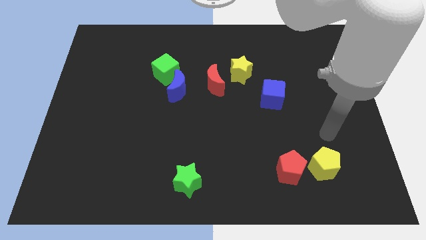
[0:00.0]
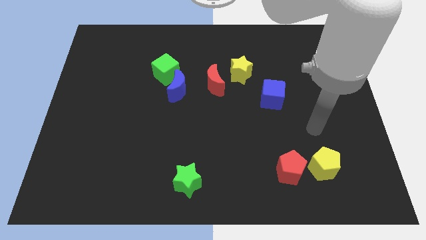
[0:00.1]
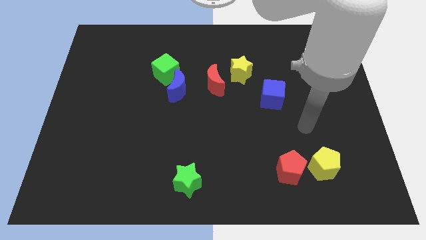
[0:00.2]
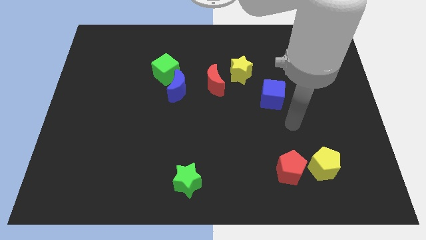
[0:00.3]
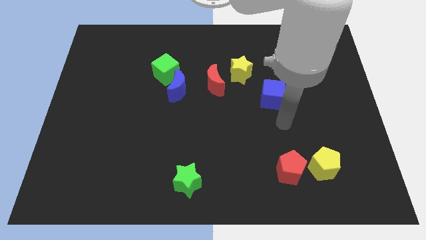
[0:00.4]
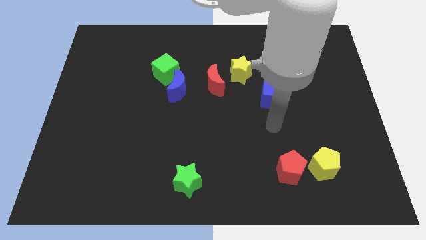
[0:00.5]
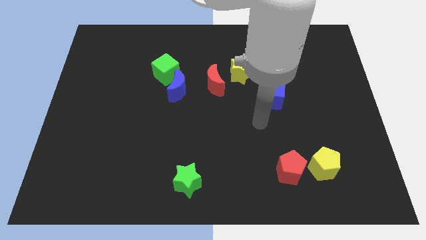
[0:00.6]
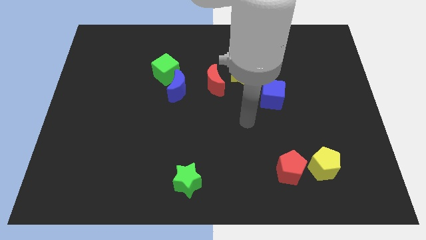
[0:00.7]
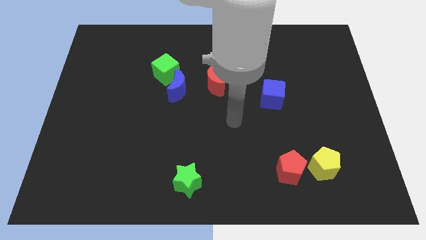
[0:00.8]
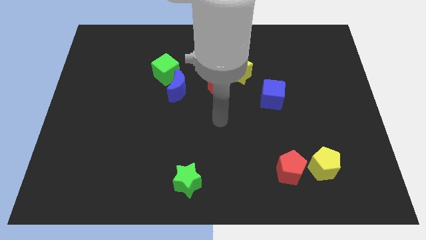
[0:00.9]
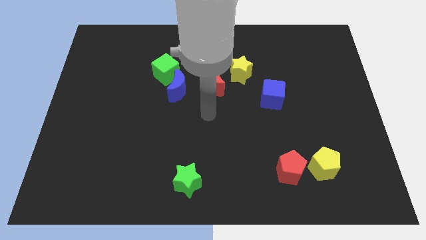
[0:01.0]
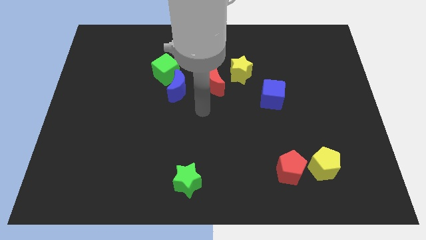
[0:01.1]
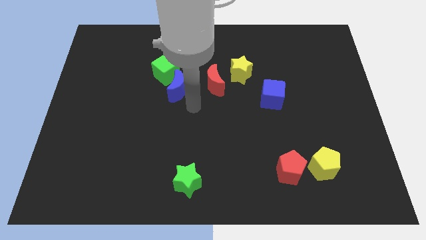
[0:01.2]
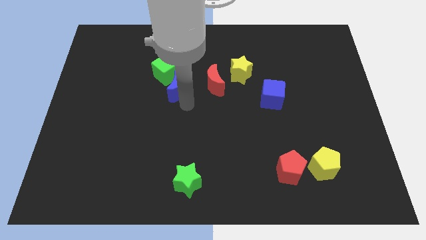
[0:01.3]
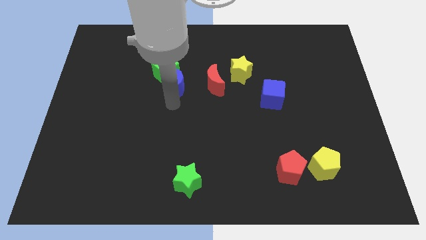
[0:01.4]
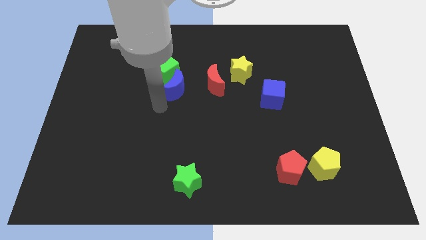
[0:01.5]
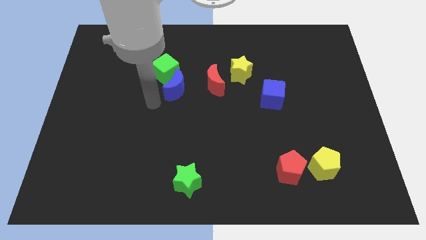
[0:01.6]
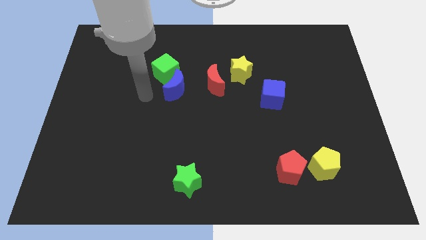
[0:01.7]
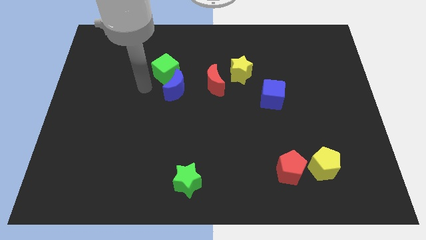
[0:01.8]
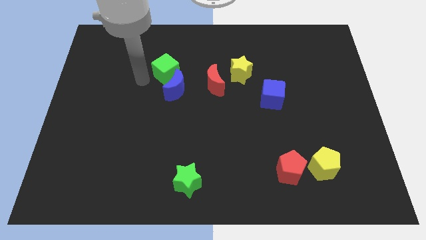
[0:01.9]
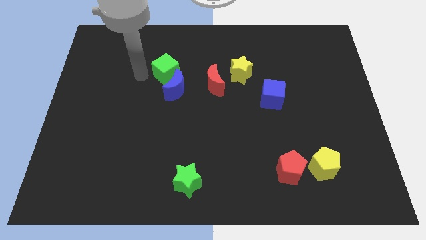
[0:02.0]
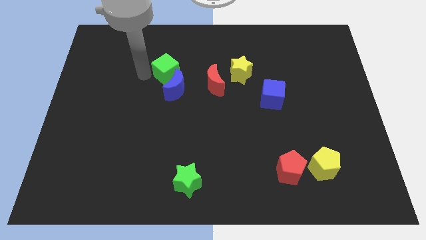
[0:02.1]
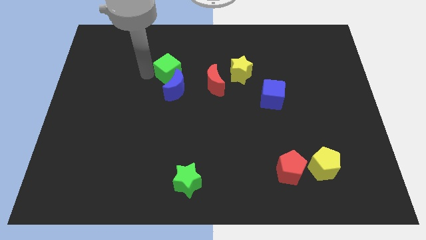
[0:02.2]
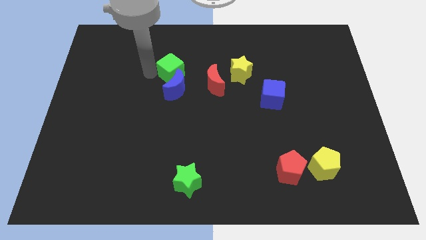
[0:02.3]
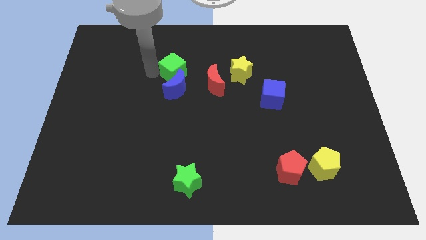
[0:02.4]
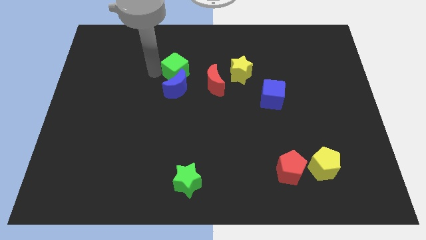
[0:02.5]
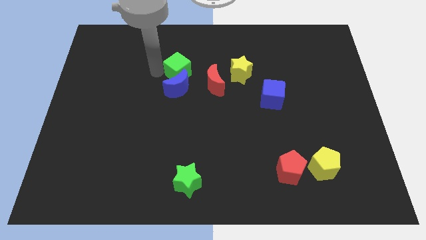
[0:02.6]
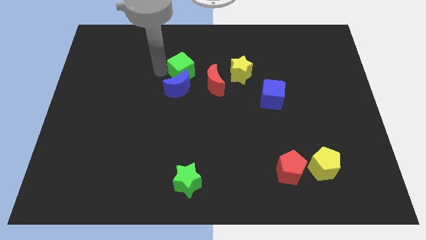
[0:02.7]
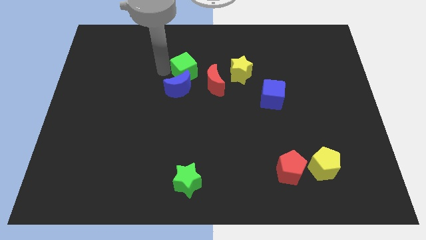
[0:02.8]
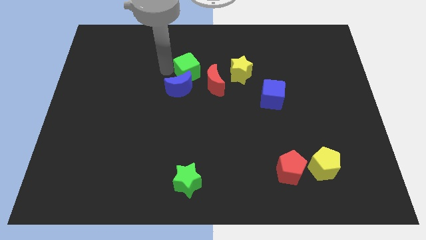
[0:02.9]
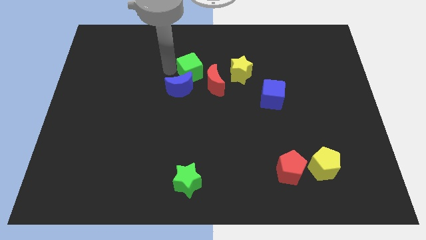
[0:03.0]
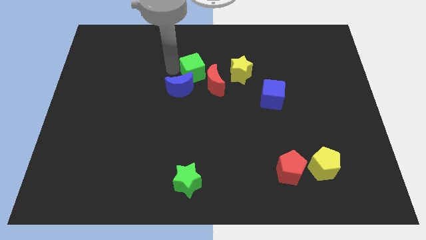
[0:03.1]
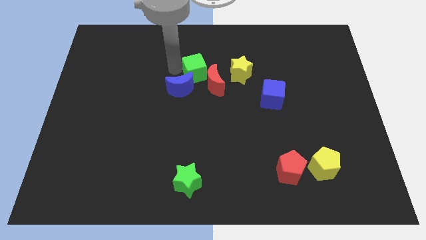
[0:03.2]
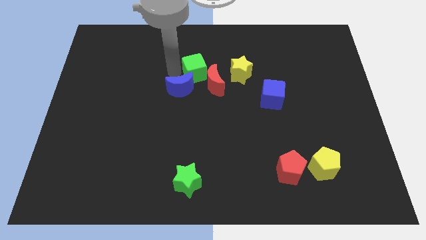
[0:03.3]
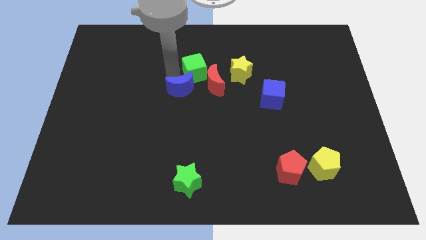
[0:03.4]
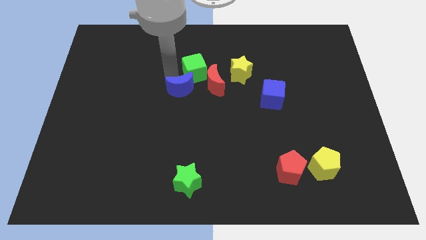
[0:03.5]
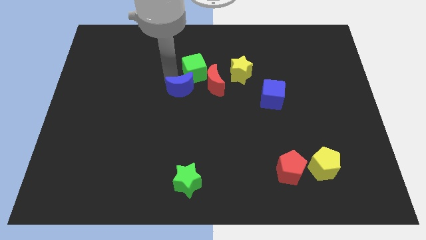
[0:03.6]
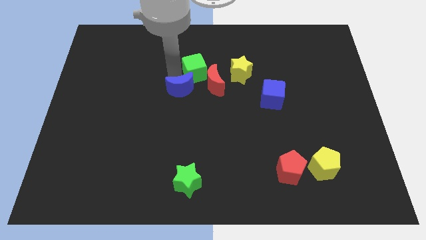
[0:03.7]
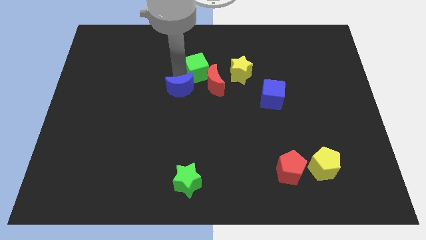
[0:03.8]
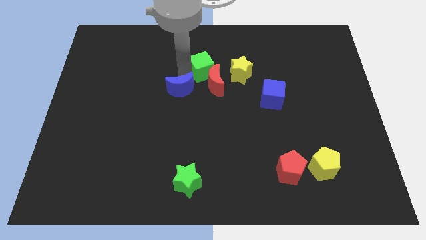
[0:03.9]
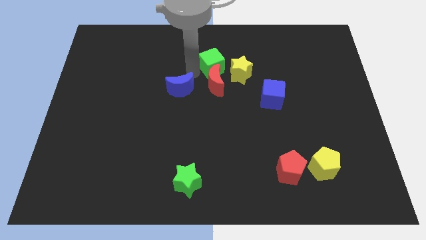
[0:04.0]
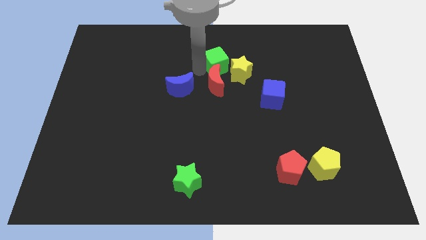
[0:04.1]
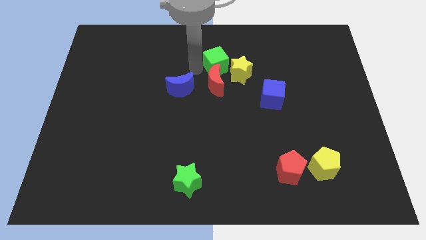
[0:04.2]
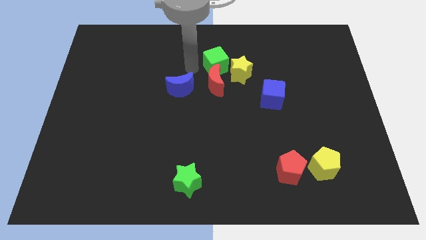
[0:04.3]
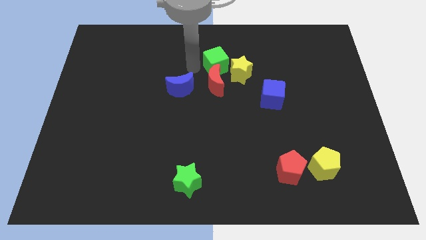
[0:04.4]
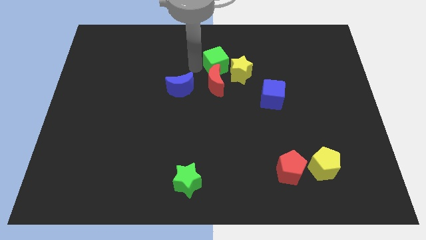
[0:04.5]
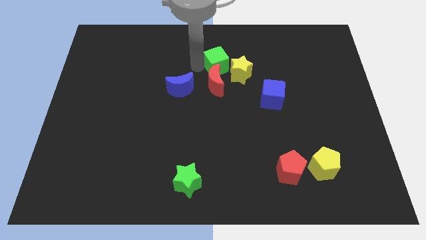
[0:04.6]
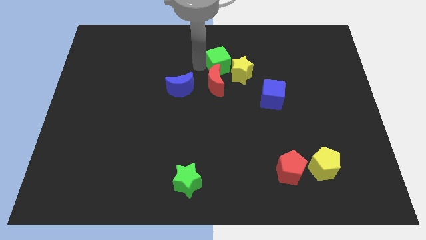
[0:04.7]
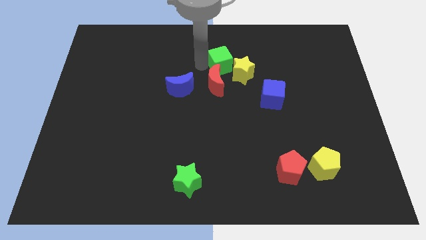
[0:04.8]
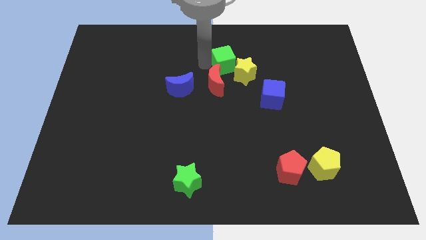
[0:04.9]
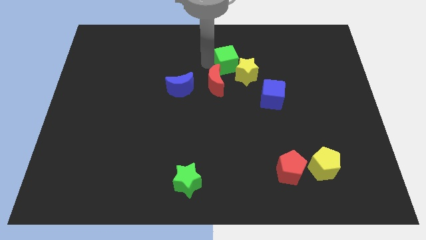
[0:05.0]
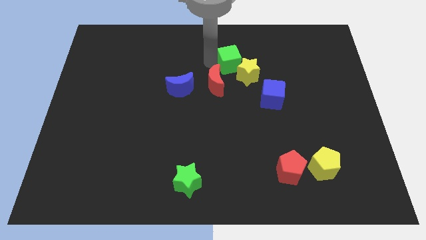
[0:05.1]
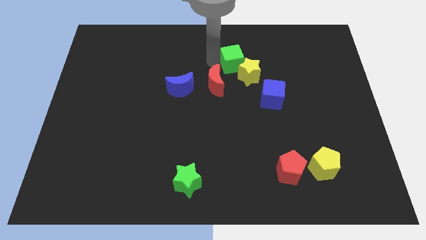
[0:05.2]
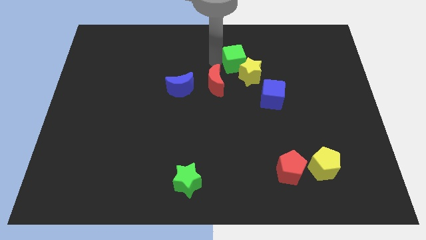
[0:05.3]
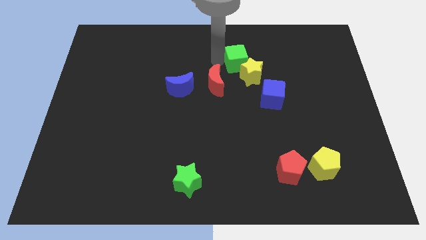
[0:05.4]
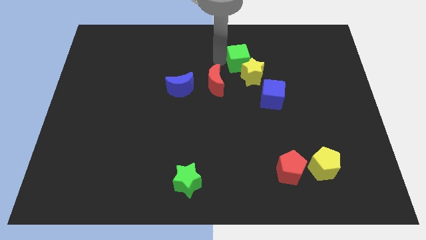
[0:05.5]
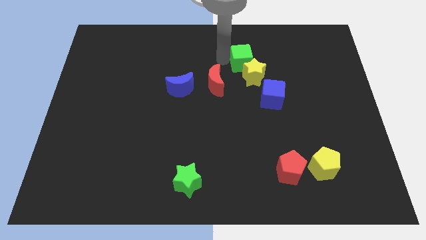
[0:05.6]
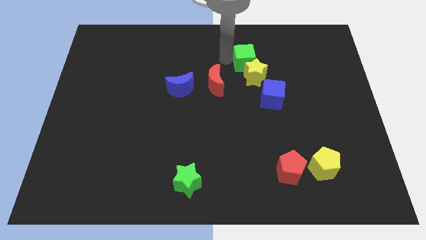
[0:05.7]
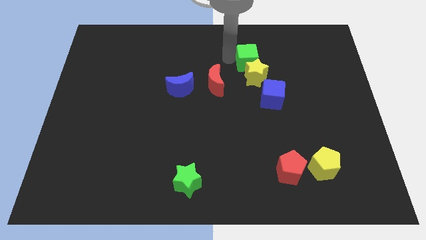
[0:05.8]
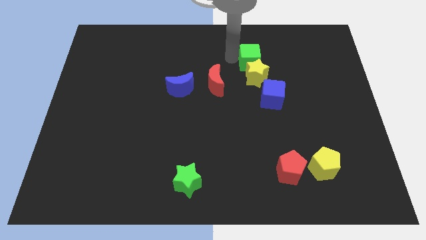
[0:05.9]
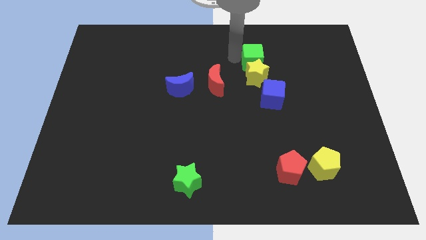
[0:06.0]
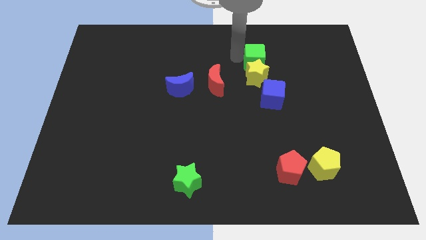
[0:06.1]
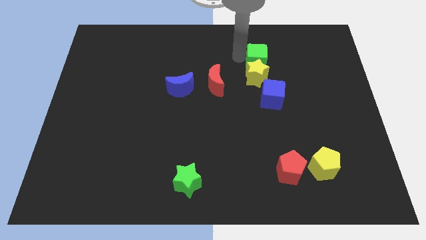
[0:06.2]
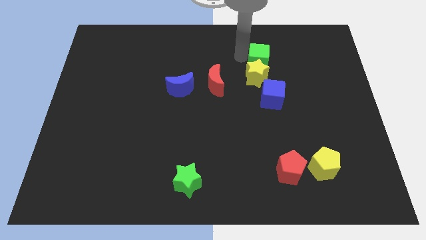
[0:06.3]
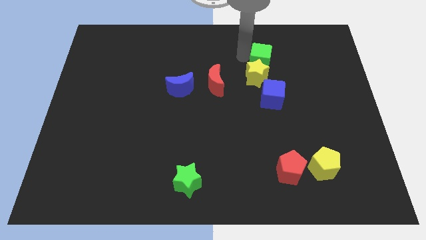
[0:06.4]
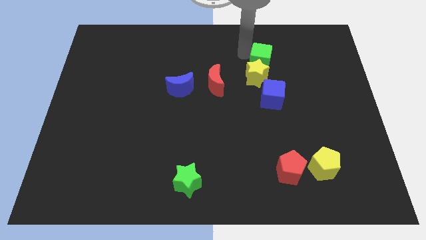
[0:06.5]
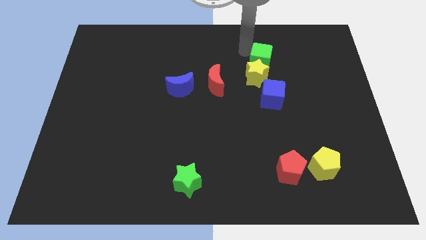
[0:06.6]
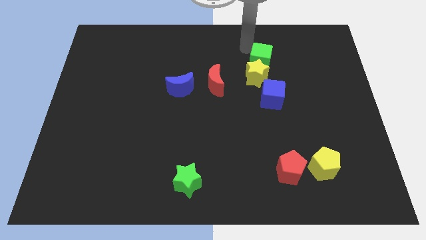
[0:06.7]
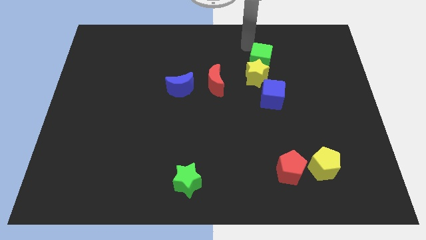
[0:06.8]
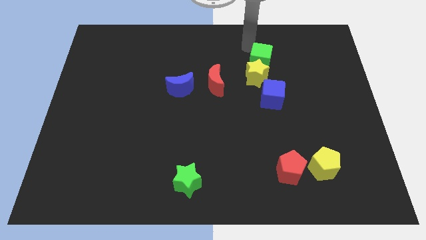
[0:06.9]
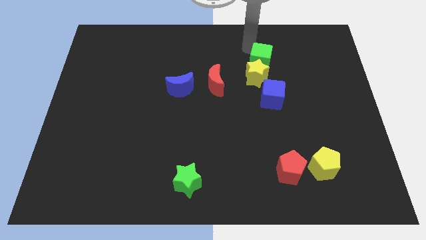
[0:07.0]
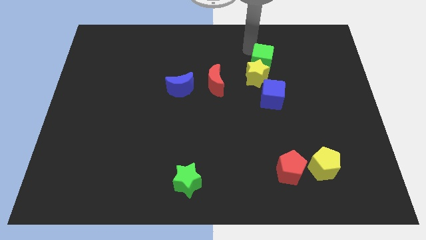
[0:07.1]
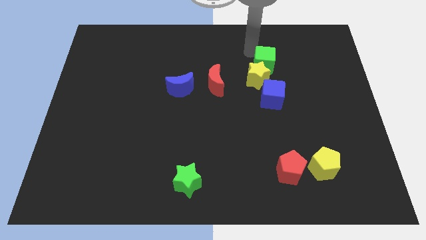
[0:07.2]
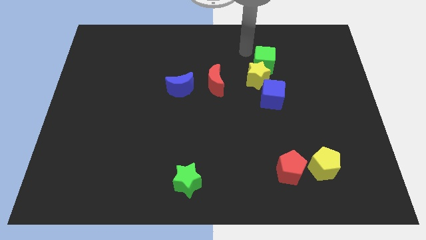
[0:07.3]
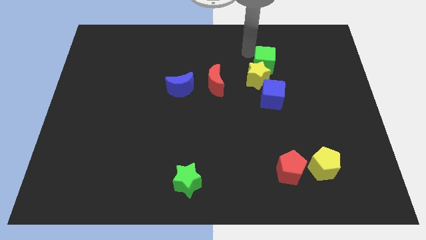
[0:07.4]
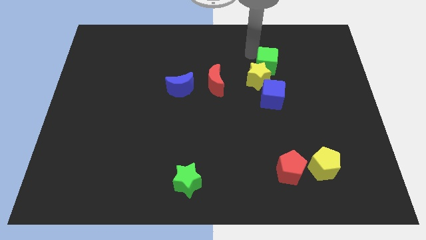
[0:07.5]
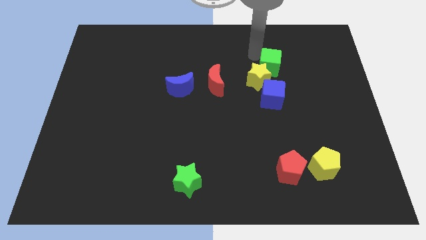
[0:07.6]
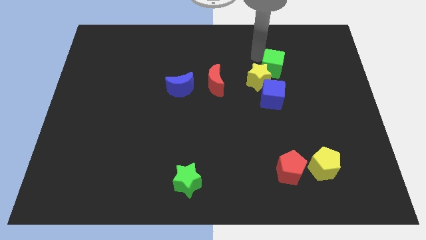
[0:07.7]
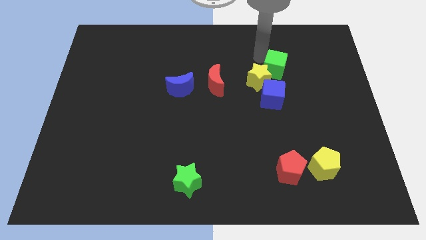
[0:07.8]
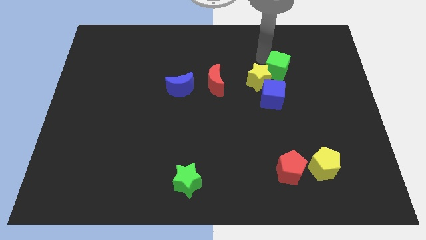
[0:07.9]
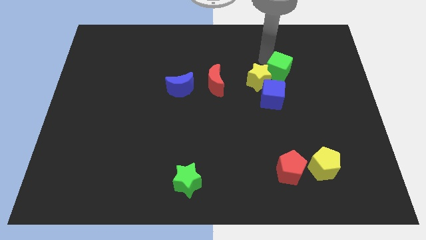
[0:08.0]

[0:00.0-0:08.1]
slide the green cube diagonally up and to the right of the blue cube

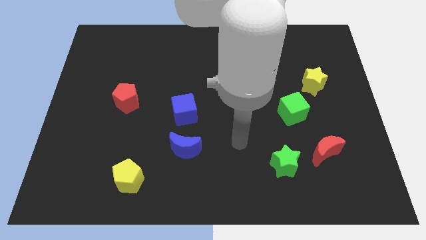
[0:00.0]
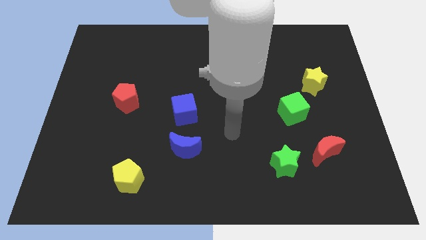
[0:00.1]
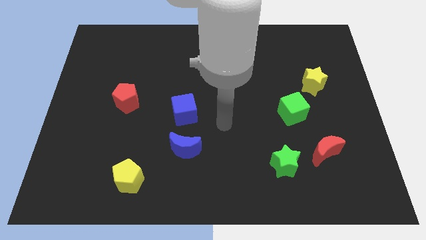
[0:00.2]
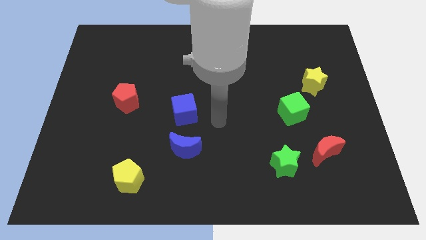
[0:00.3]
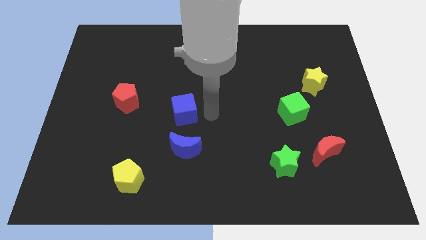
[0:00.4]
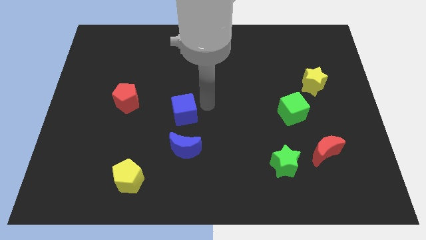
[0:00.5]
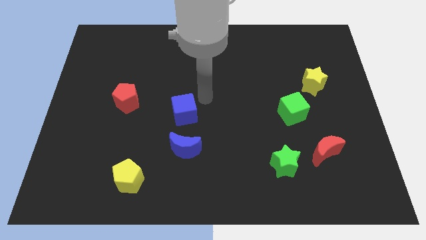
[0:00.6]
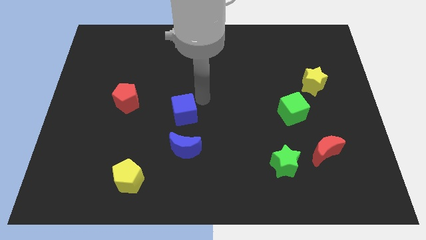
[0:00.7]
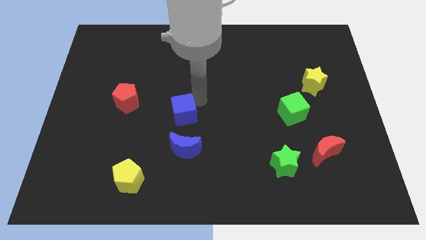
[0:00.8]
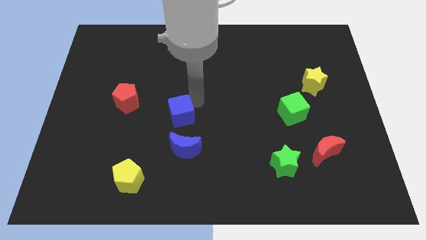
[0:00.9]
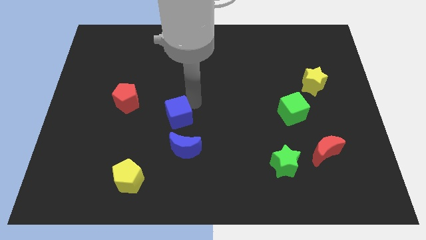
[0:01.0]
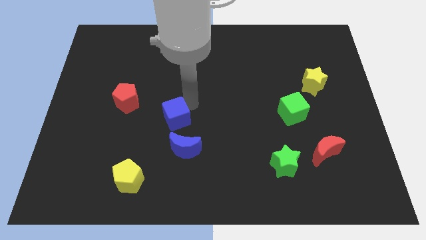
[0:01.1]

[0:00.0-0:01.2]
put the blue cube to the top left side of the blue moon
